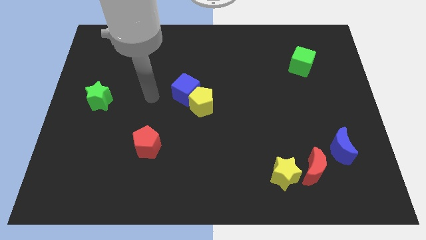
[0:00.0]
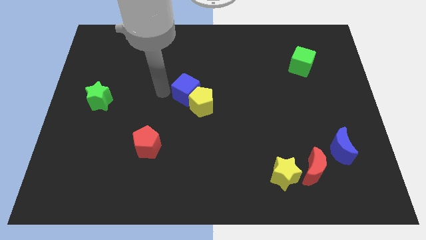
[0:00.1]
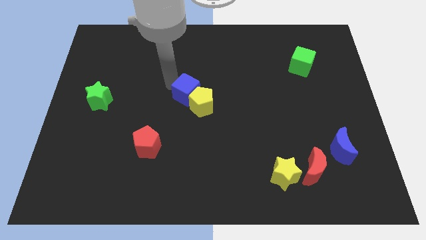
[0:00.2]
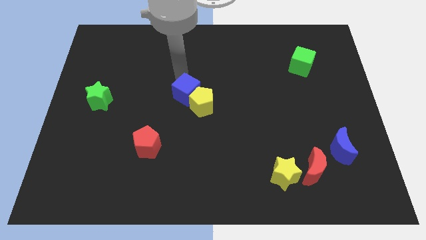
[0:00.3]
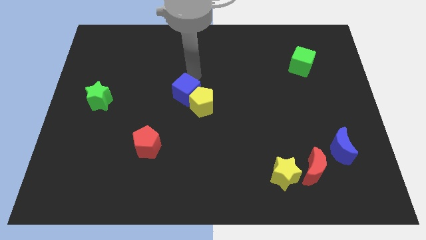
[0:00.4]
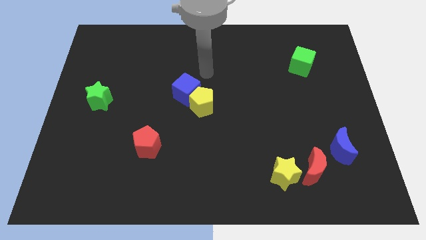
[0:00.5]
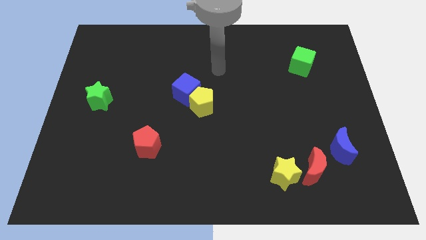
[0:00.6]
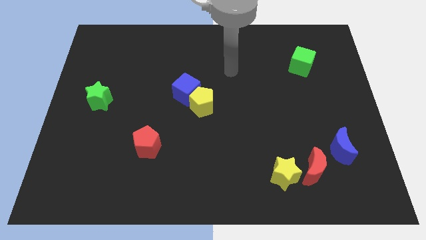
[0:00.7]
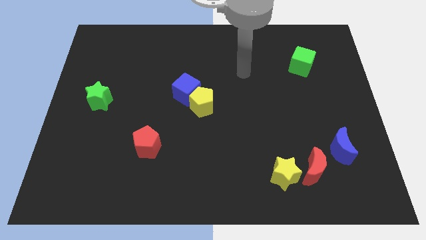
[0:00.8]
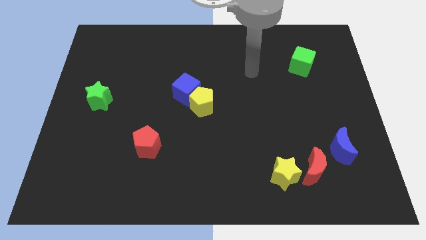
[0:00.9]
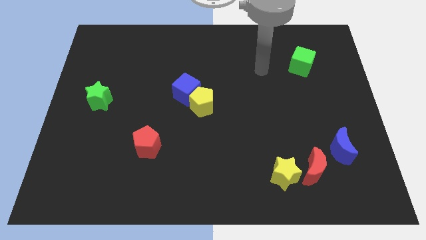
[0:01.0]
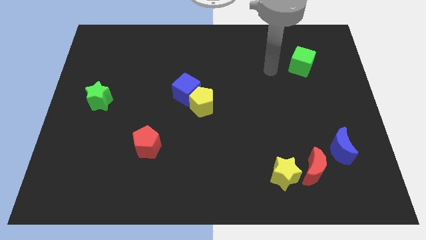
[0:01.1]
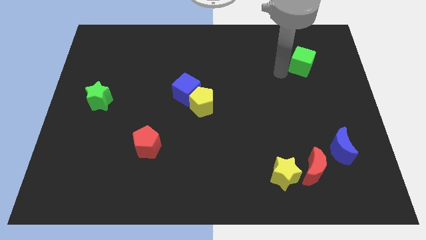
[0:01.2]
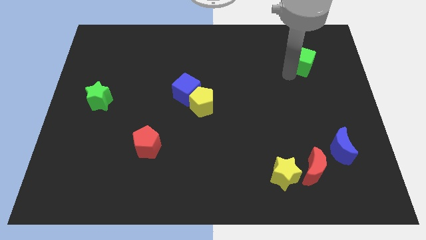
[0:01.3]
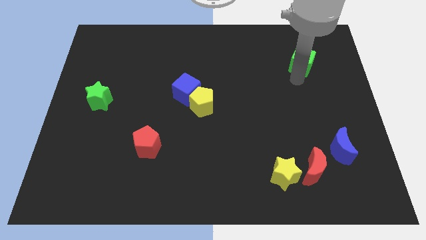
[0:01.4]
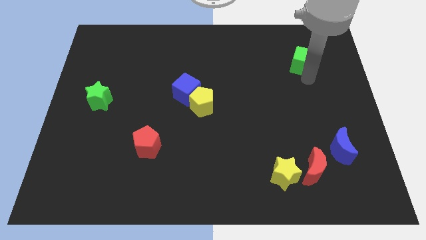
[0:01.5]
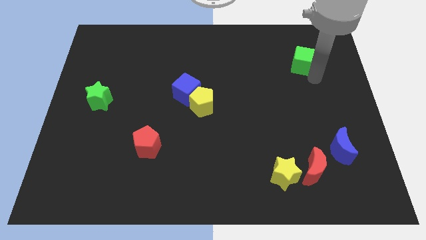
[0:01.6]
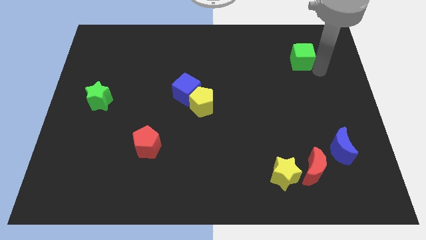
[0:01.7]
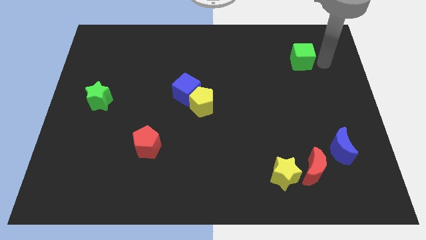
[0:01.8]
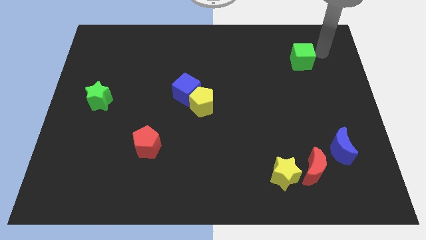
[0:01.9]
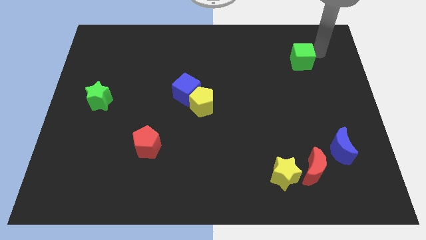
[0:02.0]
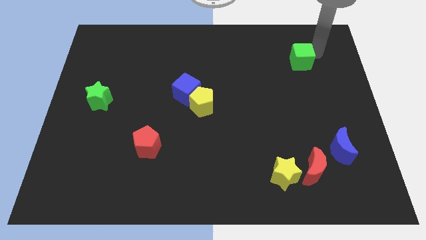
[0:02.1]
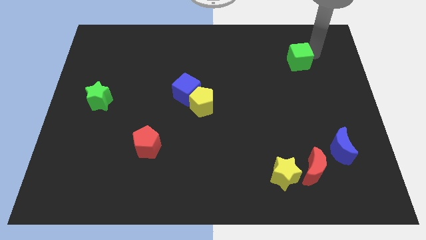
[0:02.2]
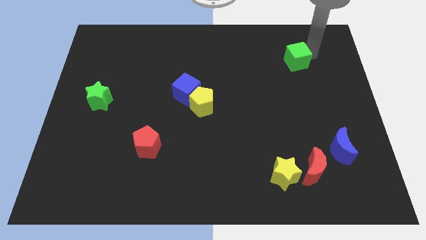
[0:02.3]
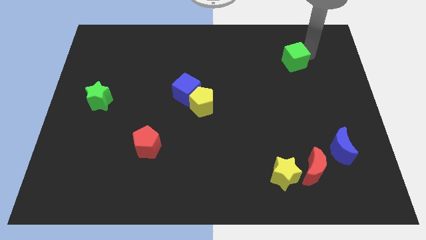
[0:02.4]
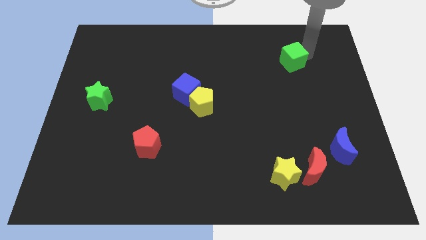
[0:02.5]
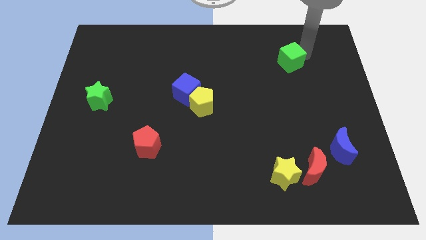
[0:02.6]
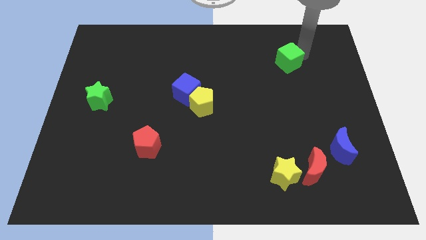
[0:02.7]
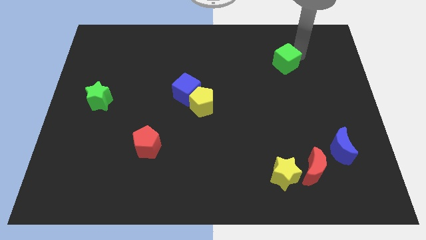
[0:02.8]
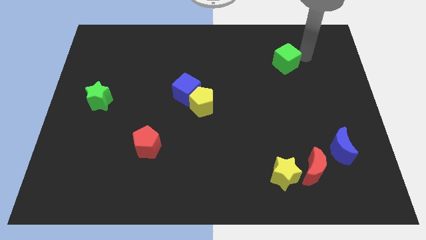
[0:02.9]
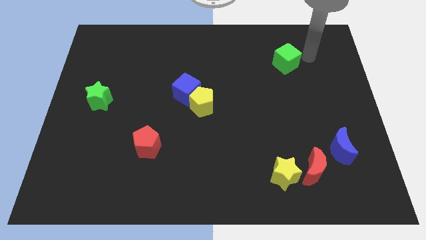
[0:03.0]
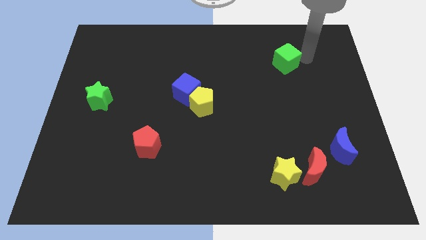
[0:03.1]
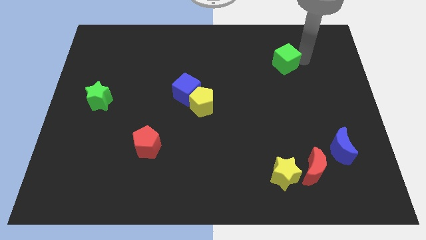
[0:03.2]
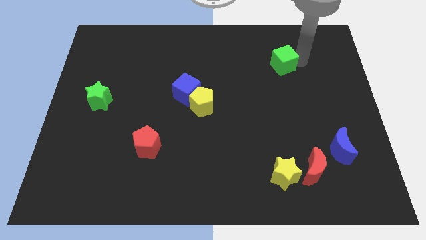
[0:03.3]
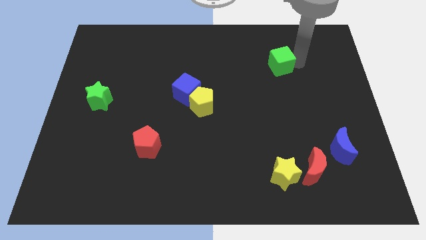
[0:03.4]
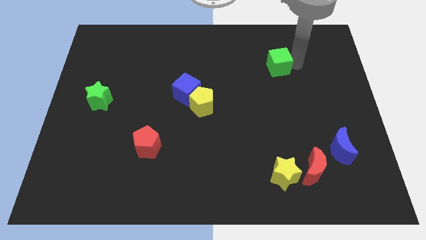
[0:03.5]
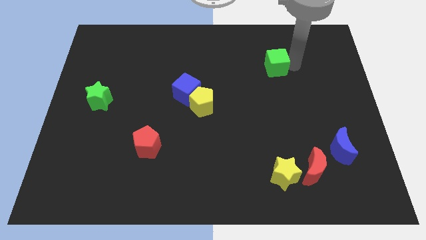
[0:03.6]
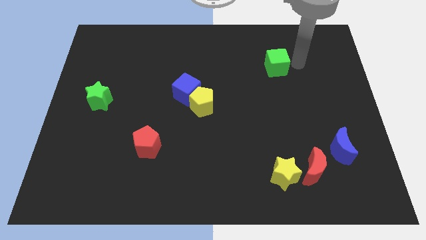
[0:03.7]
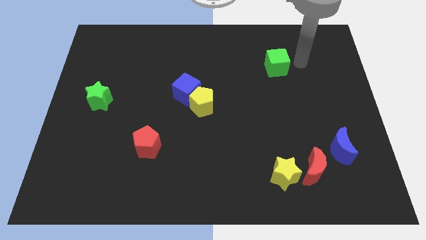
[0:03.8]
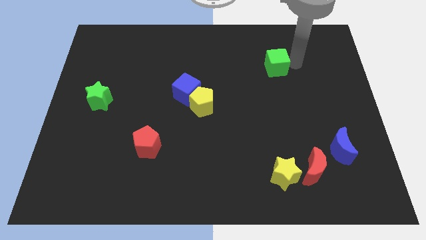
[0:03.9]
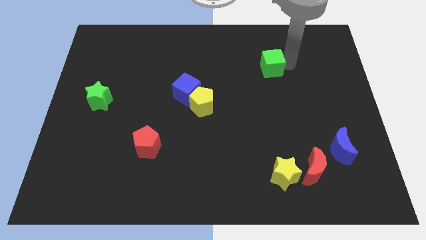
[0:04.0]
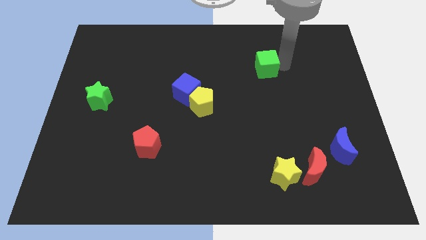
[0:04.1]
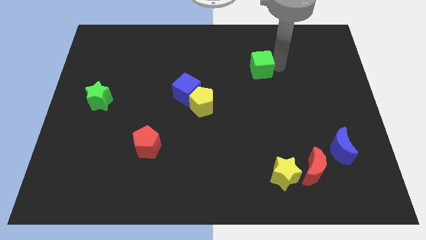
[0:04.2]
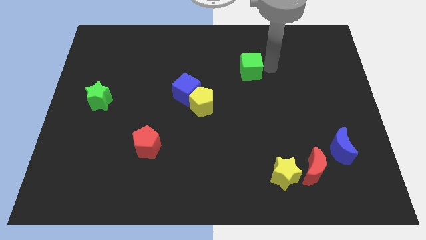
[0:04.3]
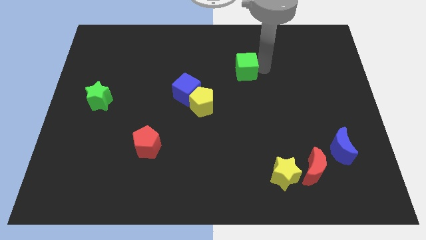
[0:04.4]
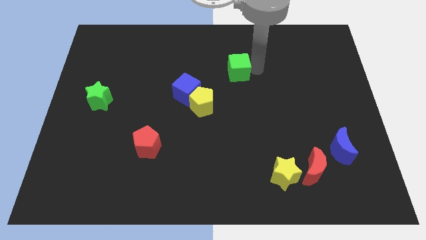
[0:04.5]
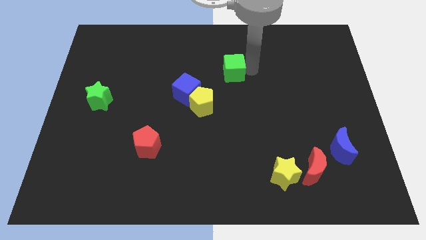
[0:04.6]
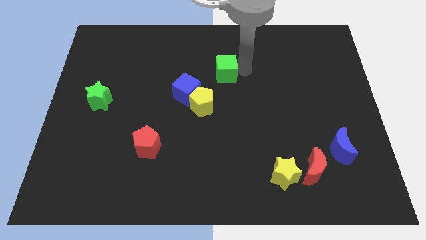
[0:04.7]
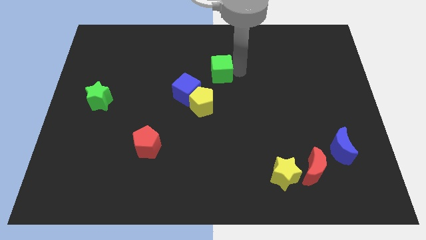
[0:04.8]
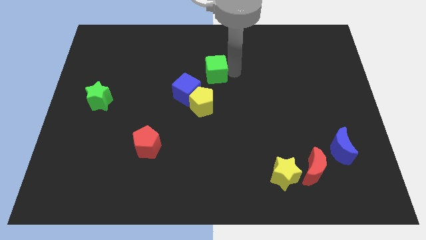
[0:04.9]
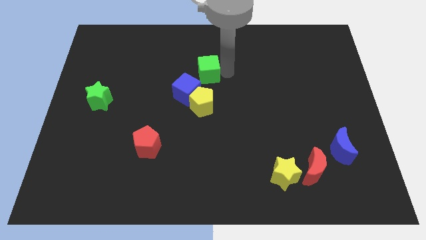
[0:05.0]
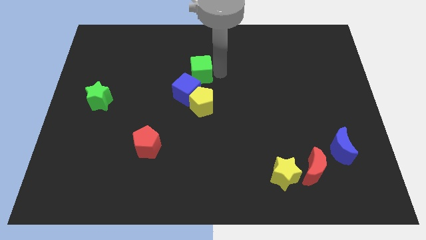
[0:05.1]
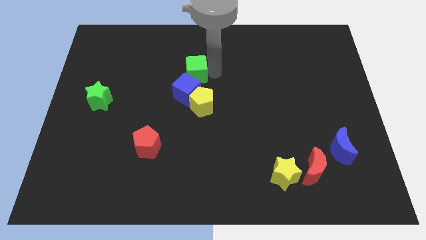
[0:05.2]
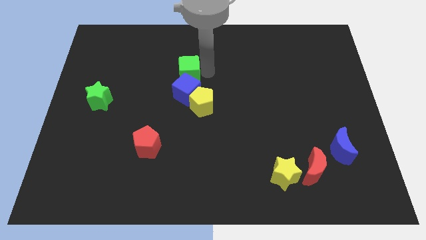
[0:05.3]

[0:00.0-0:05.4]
put the green cube to the top left side of the blue cube

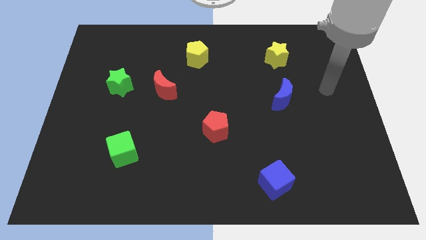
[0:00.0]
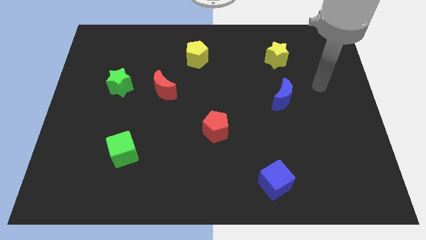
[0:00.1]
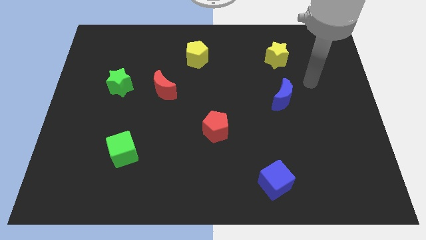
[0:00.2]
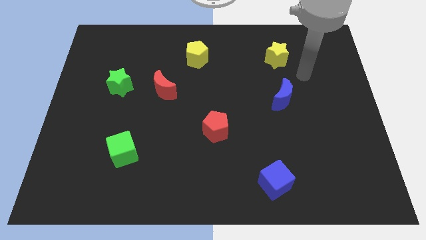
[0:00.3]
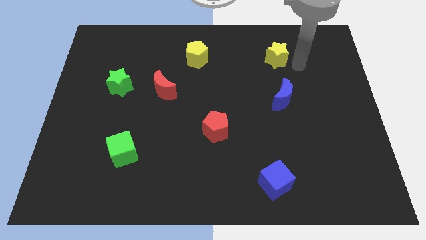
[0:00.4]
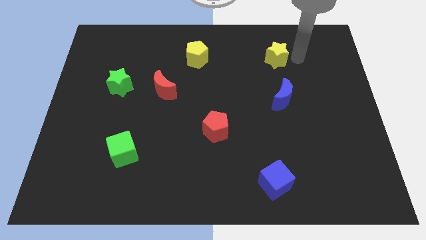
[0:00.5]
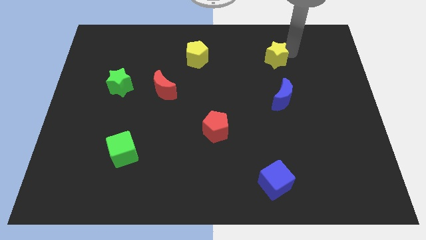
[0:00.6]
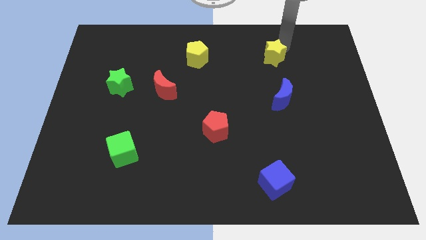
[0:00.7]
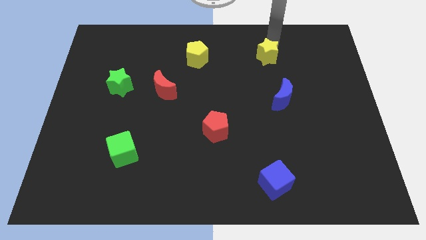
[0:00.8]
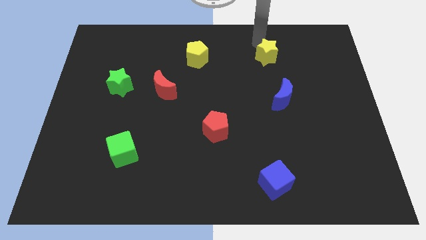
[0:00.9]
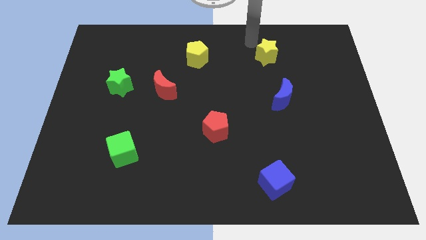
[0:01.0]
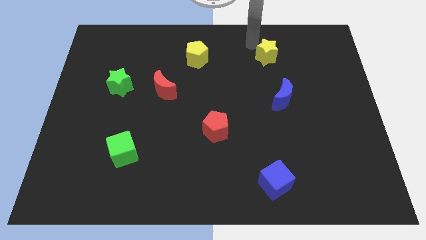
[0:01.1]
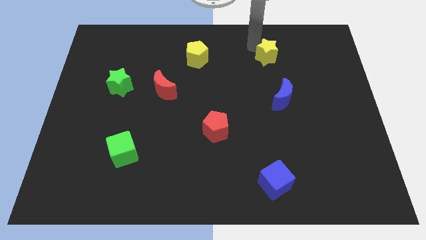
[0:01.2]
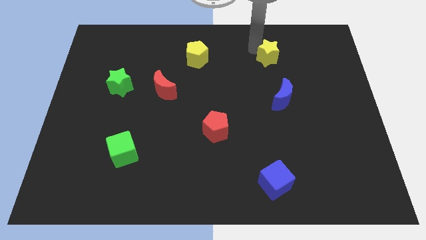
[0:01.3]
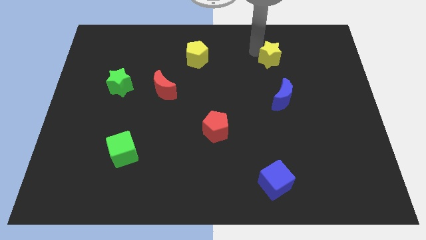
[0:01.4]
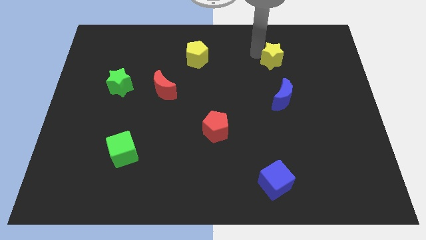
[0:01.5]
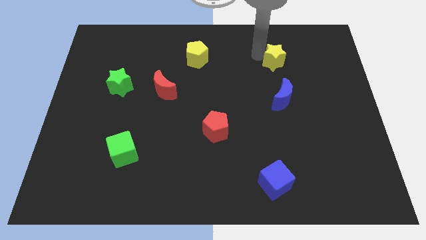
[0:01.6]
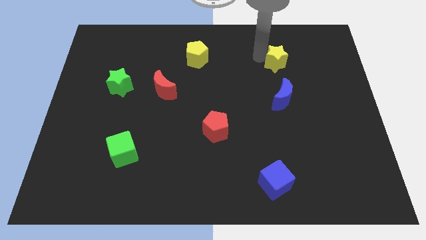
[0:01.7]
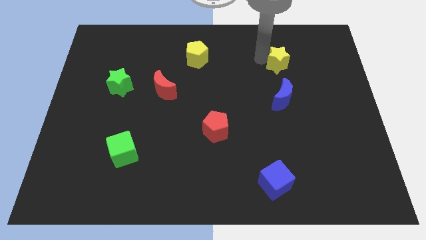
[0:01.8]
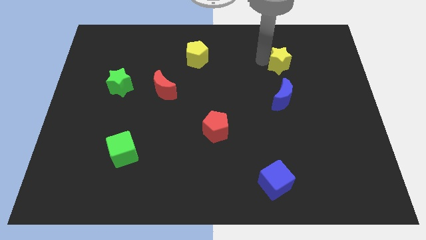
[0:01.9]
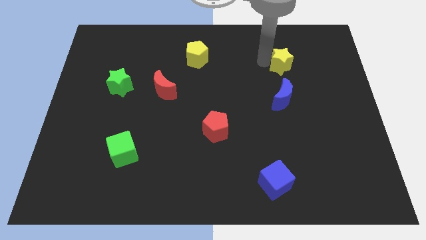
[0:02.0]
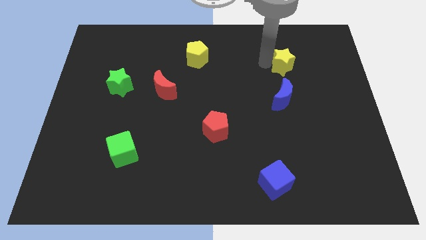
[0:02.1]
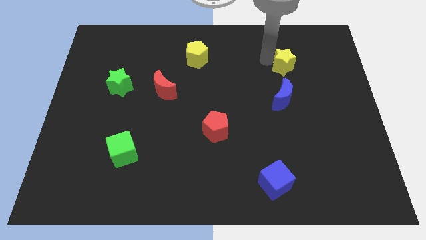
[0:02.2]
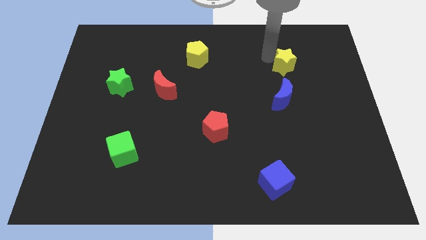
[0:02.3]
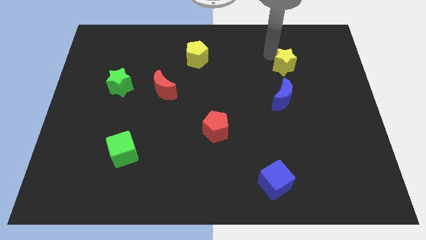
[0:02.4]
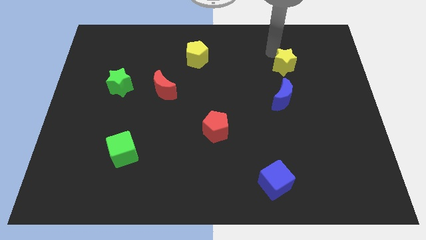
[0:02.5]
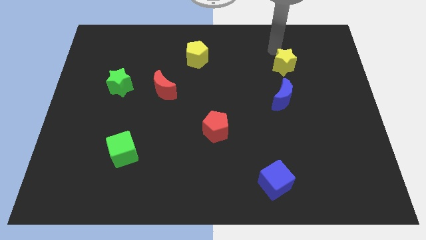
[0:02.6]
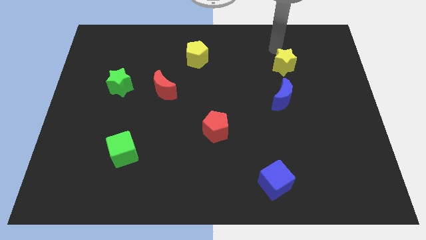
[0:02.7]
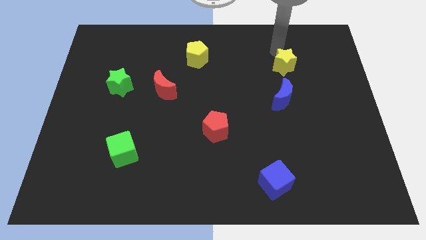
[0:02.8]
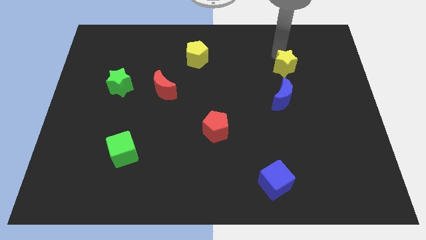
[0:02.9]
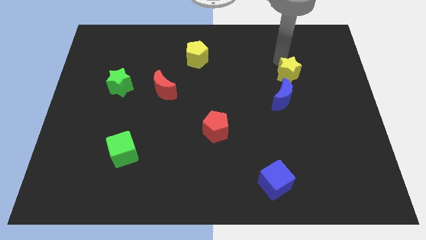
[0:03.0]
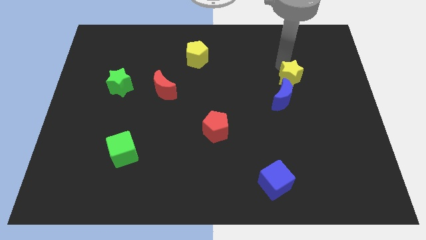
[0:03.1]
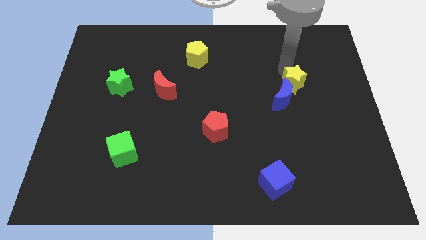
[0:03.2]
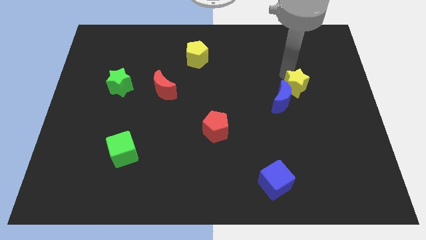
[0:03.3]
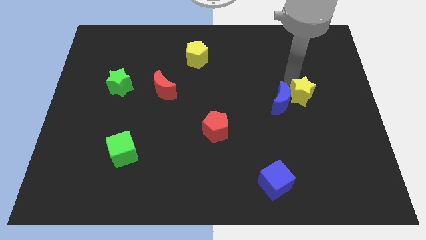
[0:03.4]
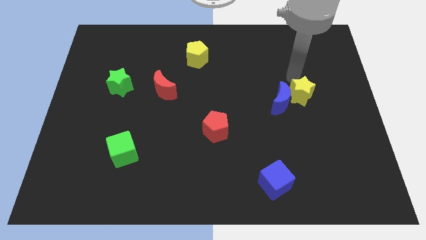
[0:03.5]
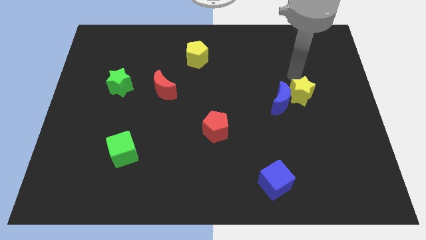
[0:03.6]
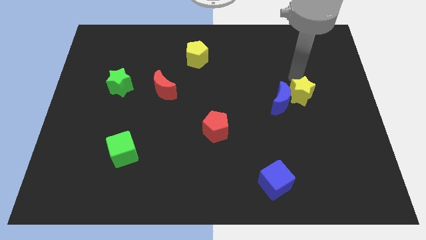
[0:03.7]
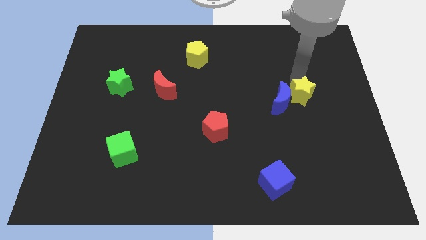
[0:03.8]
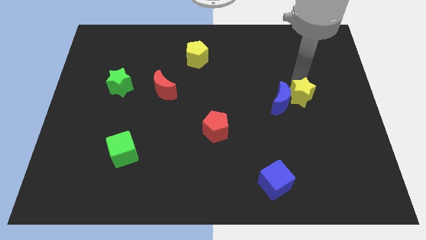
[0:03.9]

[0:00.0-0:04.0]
move the yellow star diagonally down and to the right of the blue moon
